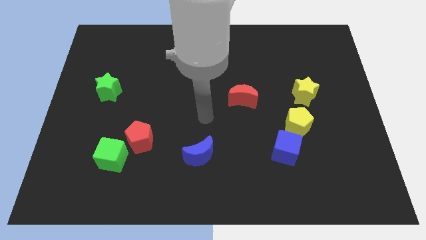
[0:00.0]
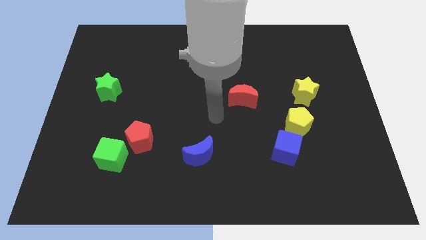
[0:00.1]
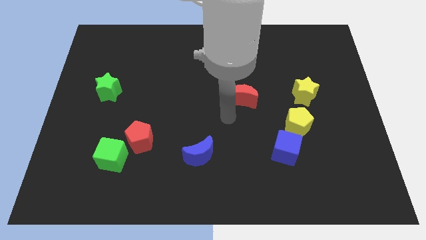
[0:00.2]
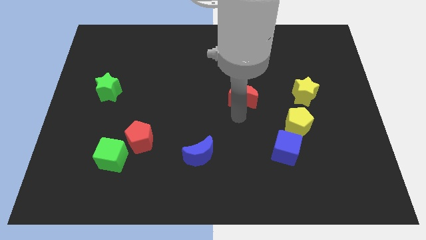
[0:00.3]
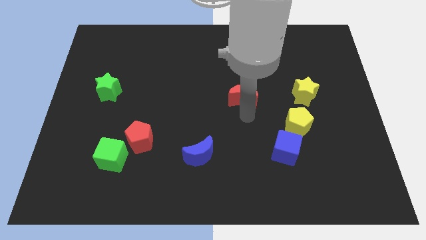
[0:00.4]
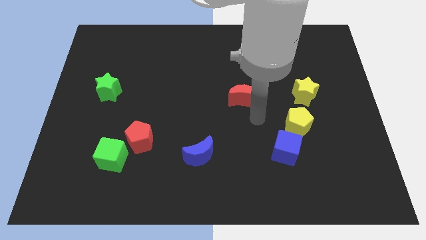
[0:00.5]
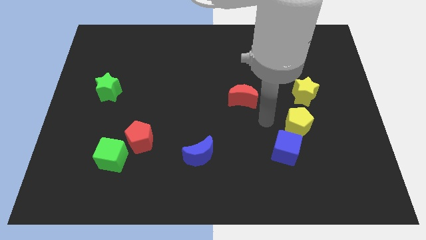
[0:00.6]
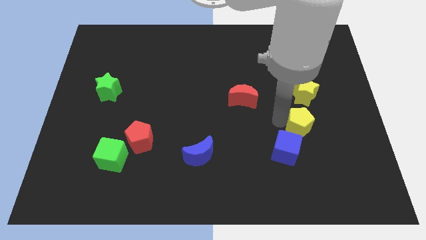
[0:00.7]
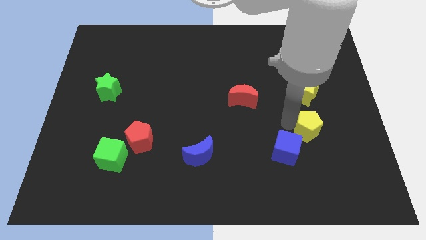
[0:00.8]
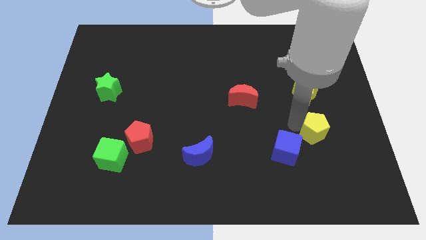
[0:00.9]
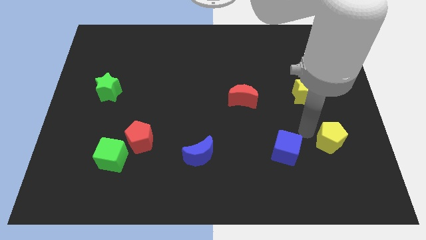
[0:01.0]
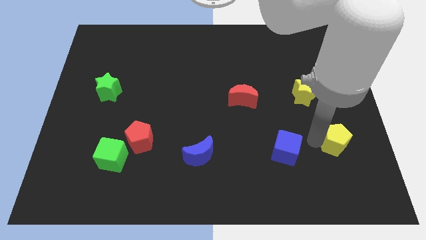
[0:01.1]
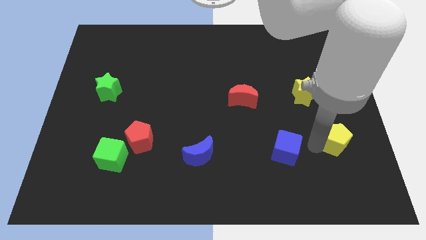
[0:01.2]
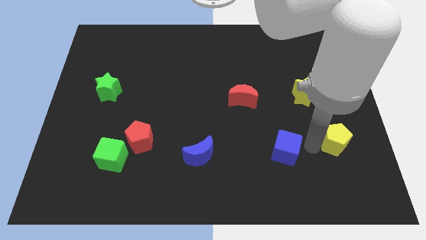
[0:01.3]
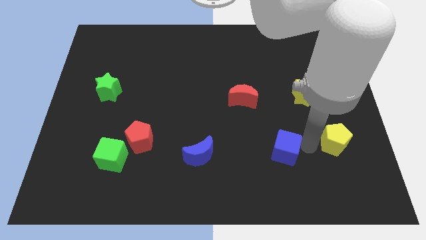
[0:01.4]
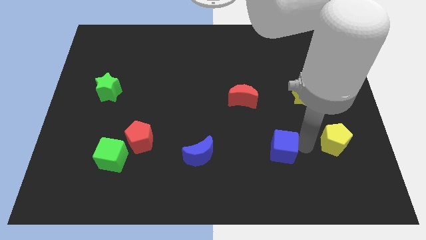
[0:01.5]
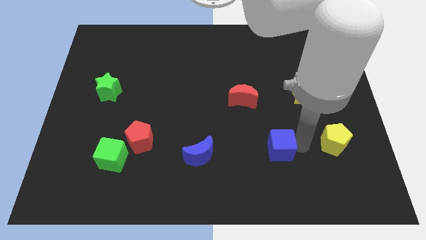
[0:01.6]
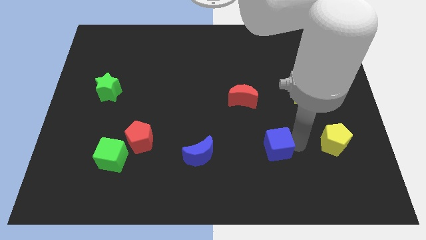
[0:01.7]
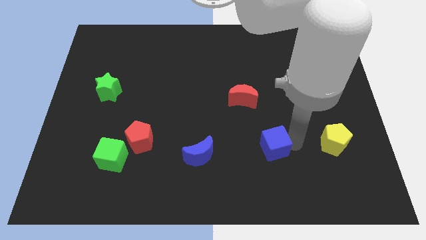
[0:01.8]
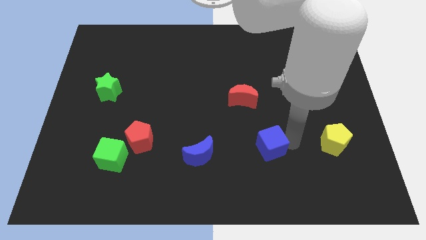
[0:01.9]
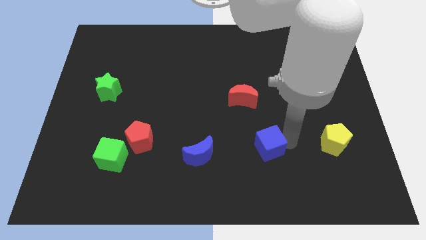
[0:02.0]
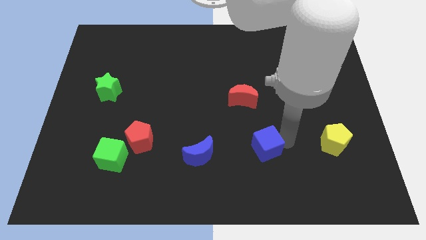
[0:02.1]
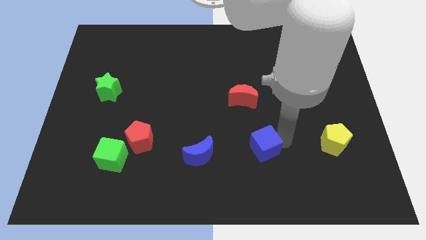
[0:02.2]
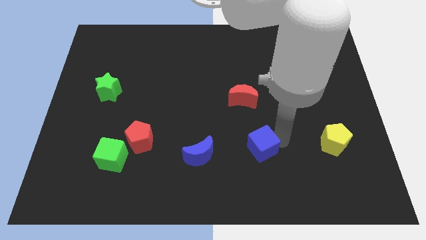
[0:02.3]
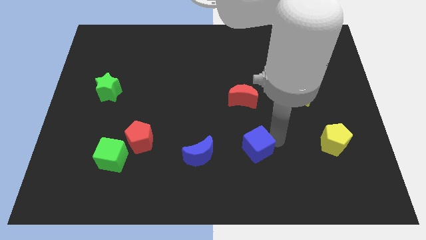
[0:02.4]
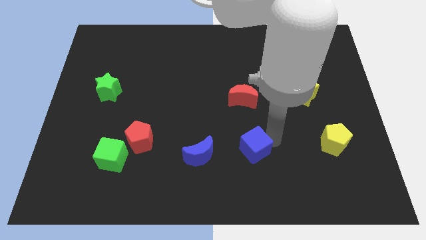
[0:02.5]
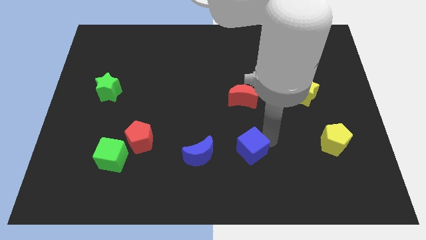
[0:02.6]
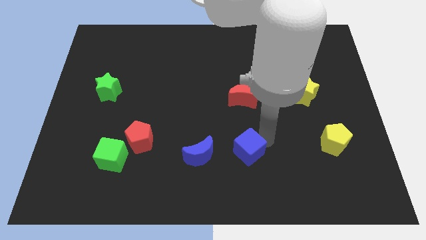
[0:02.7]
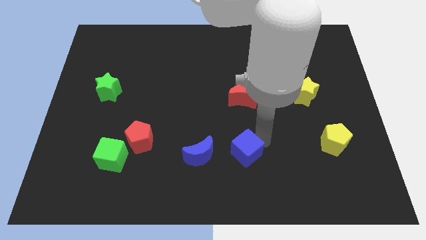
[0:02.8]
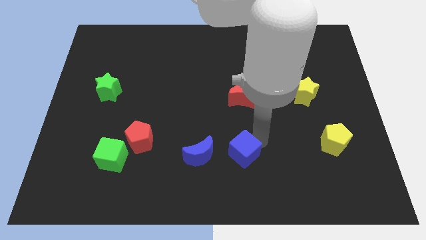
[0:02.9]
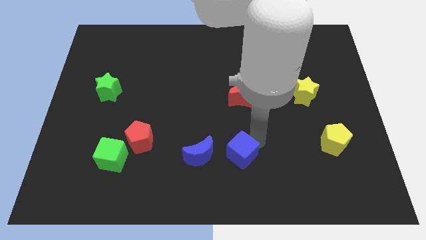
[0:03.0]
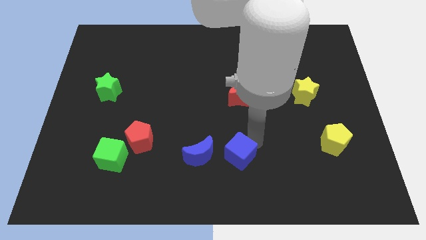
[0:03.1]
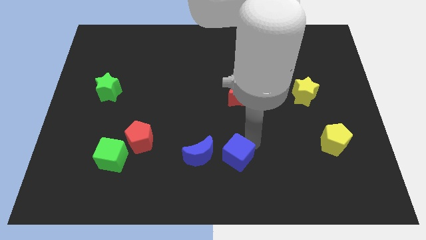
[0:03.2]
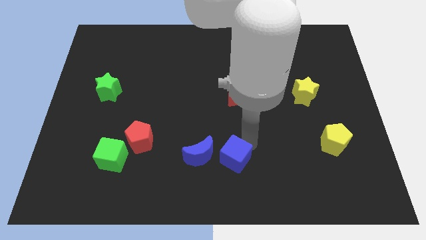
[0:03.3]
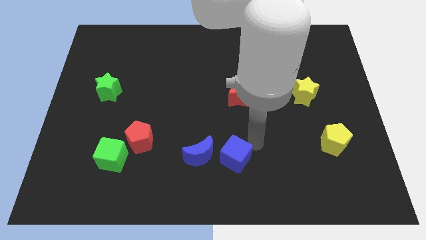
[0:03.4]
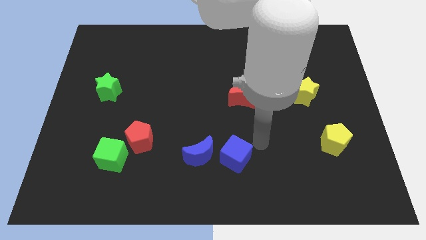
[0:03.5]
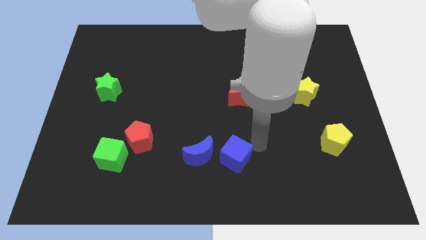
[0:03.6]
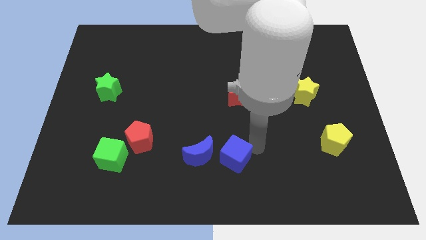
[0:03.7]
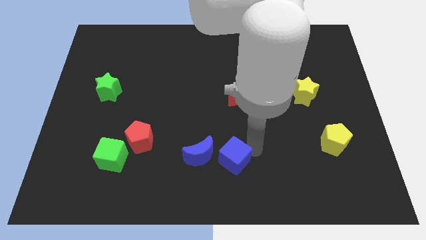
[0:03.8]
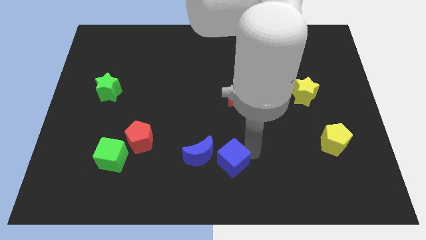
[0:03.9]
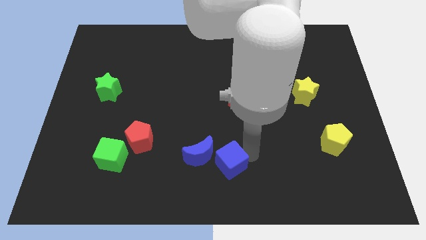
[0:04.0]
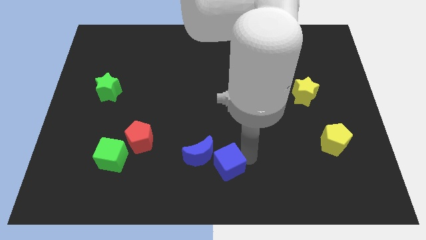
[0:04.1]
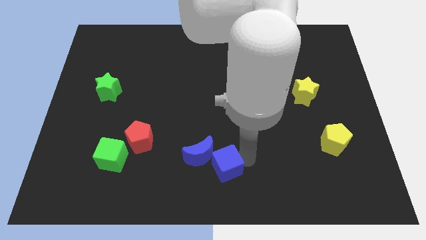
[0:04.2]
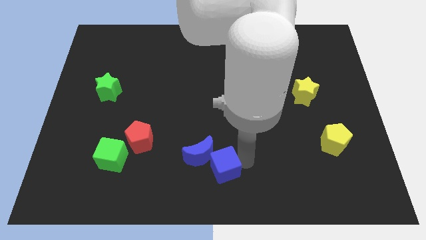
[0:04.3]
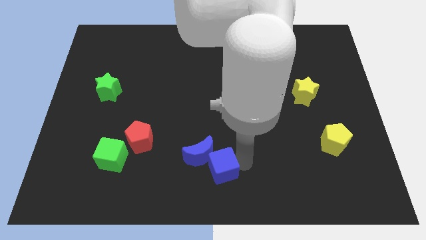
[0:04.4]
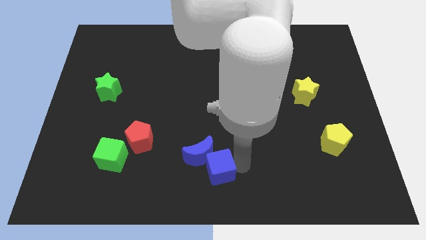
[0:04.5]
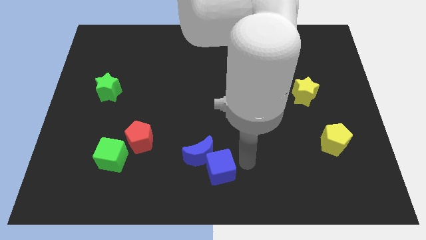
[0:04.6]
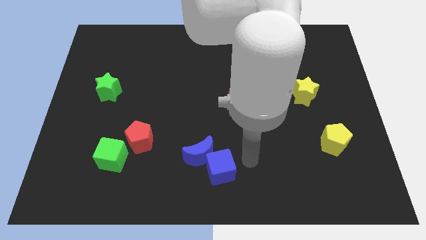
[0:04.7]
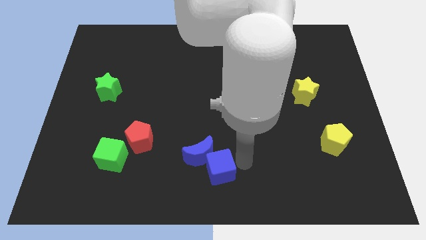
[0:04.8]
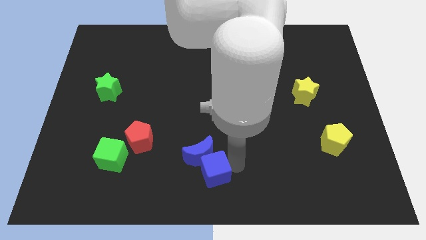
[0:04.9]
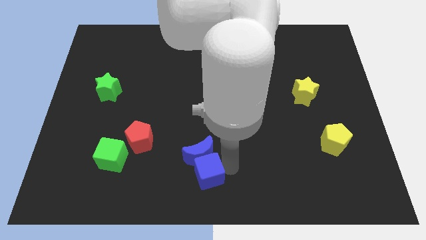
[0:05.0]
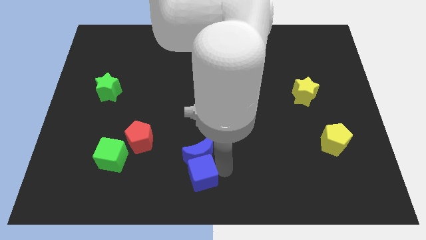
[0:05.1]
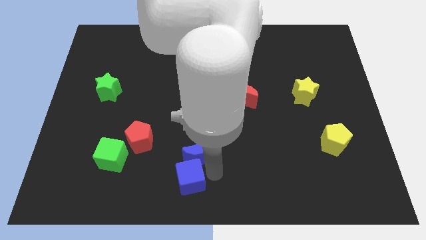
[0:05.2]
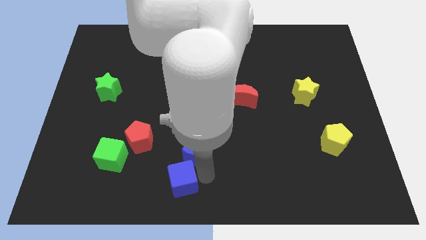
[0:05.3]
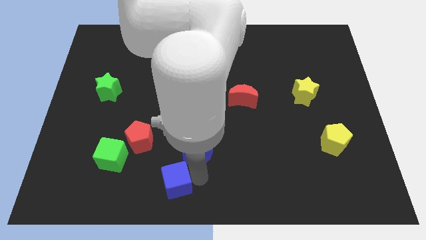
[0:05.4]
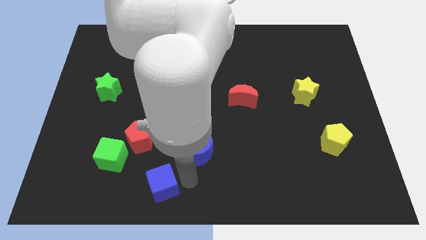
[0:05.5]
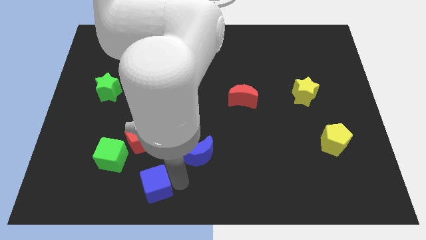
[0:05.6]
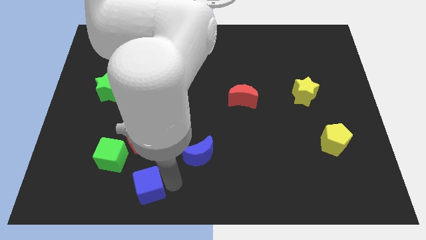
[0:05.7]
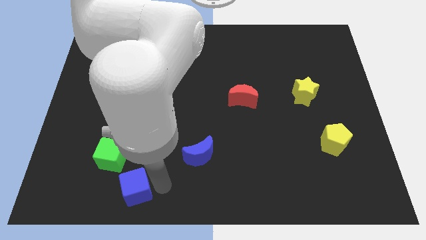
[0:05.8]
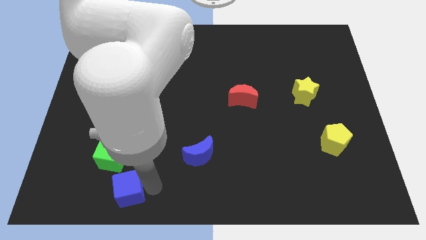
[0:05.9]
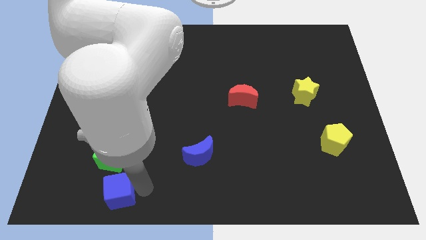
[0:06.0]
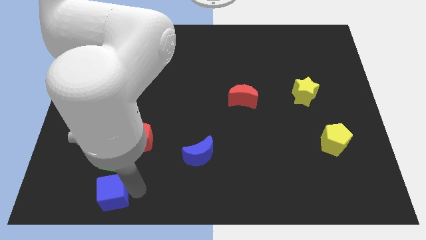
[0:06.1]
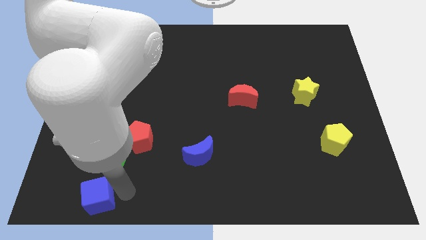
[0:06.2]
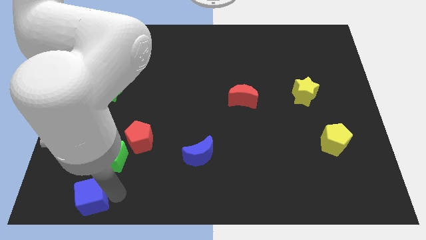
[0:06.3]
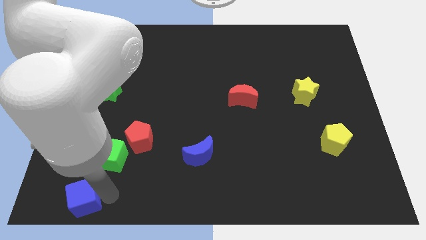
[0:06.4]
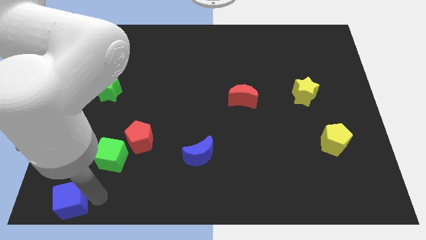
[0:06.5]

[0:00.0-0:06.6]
move the blue cube to the lower left corner

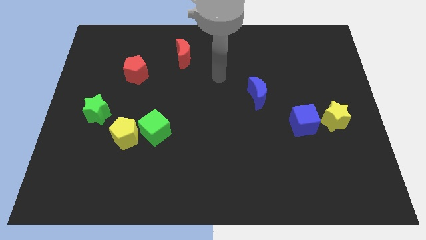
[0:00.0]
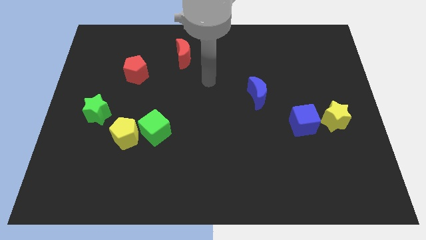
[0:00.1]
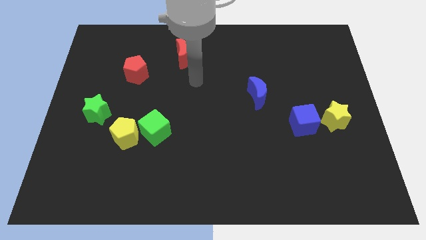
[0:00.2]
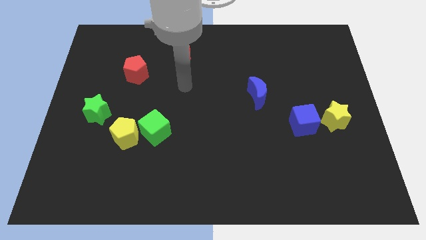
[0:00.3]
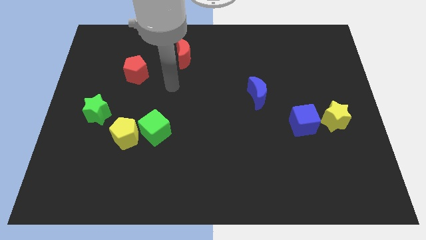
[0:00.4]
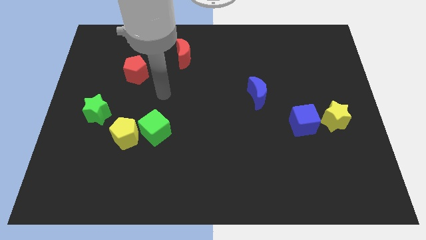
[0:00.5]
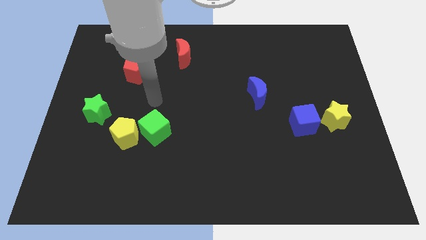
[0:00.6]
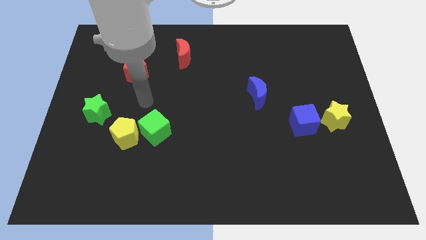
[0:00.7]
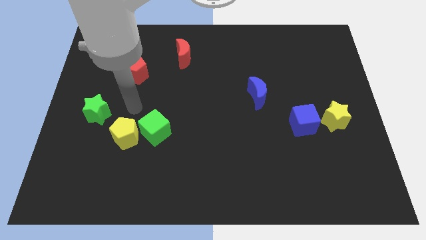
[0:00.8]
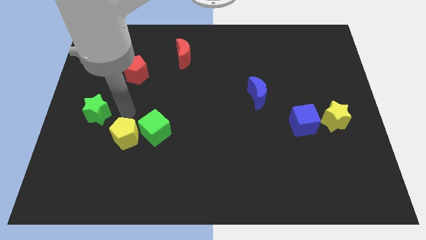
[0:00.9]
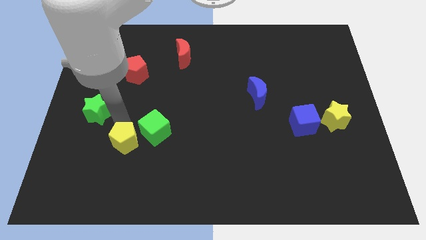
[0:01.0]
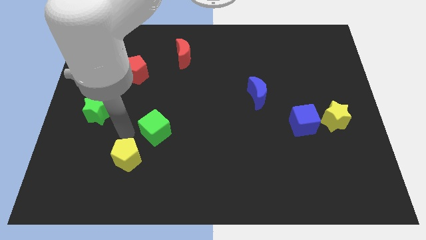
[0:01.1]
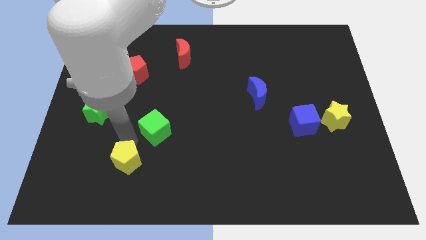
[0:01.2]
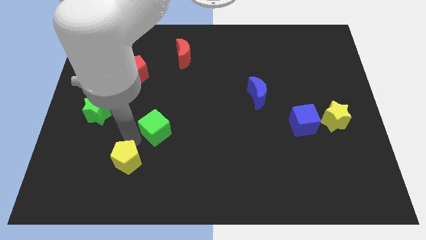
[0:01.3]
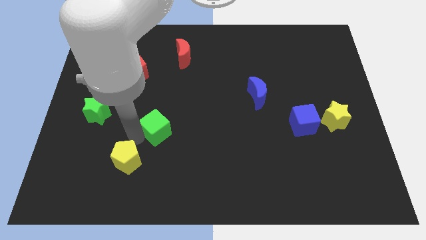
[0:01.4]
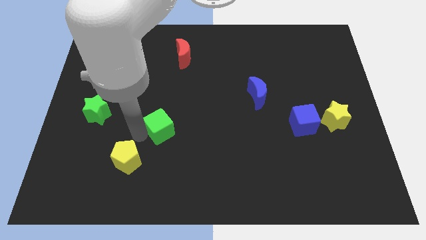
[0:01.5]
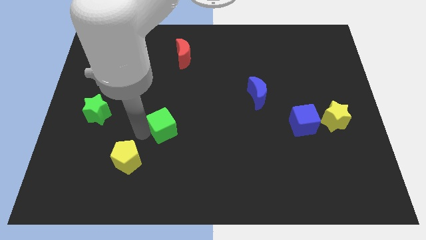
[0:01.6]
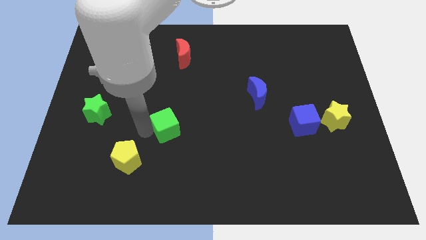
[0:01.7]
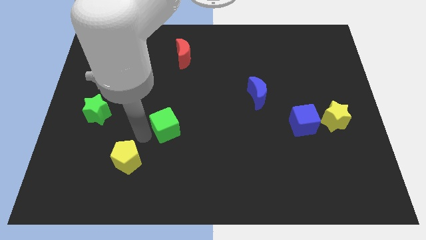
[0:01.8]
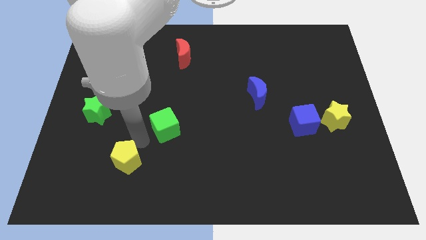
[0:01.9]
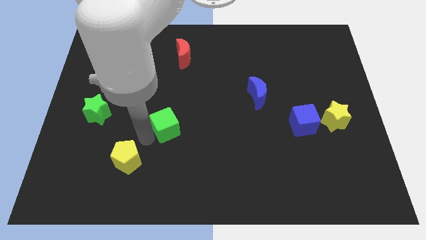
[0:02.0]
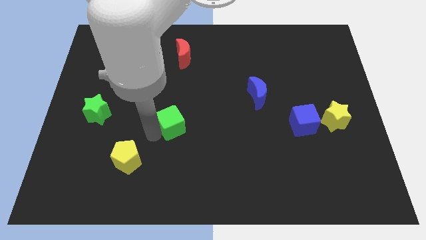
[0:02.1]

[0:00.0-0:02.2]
move the green cube to the middle
